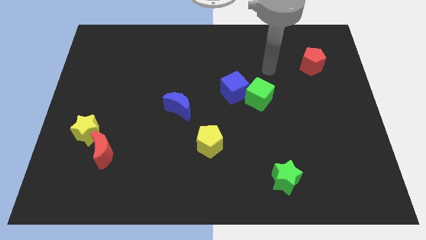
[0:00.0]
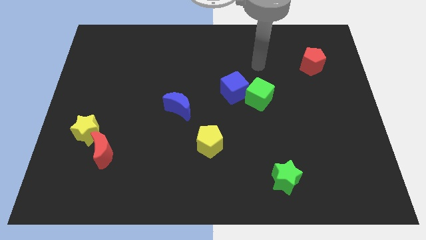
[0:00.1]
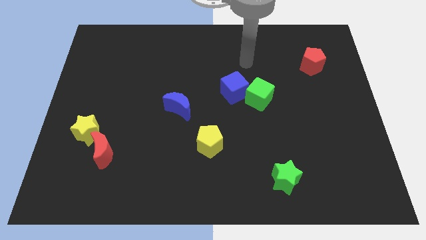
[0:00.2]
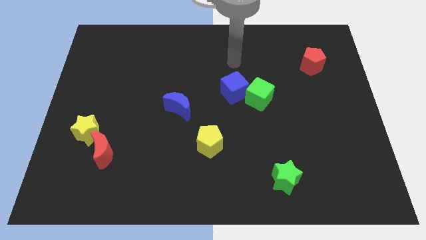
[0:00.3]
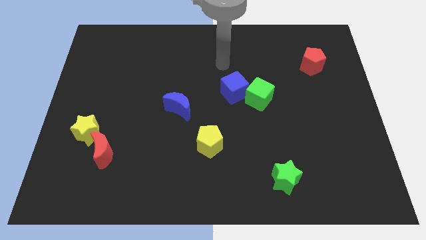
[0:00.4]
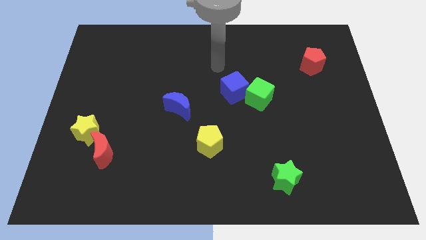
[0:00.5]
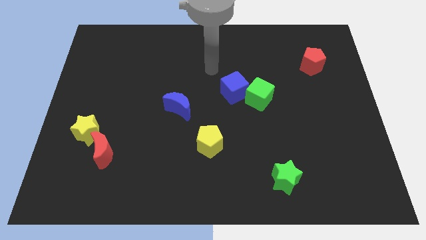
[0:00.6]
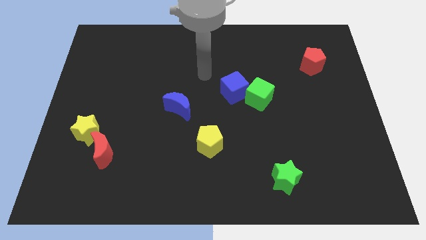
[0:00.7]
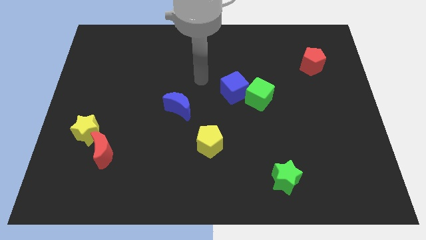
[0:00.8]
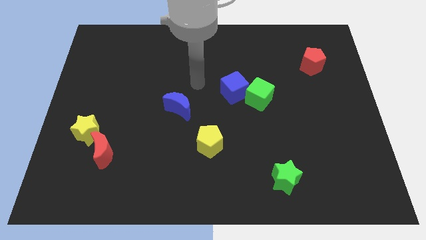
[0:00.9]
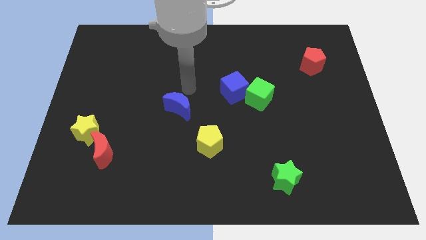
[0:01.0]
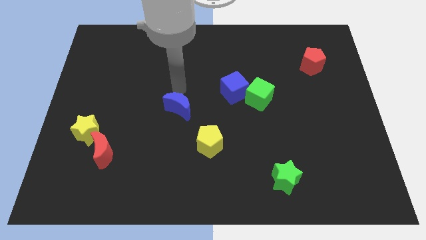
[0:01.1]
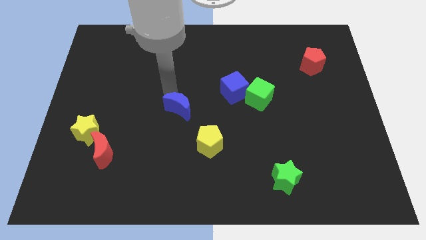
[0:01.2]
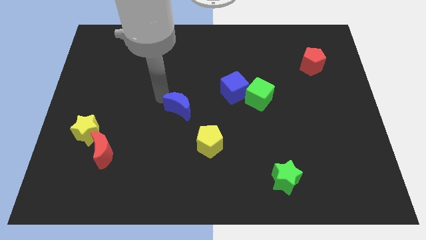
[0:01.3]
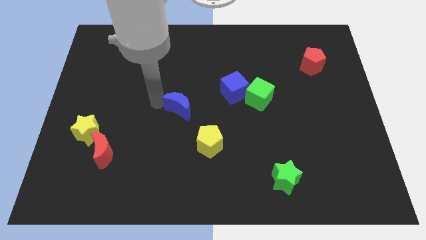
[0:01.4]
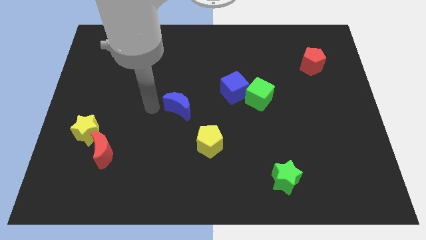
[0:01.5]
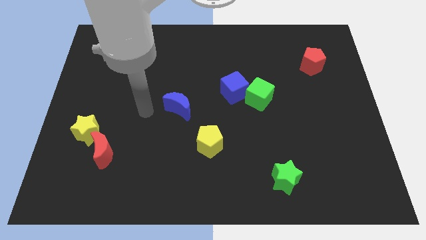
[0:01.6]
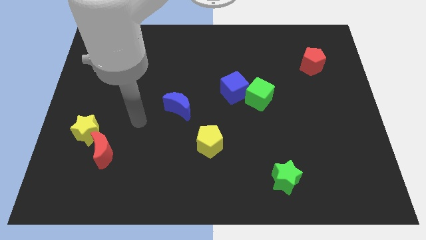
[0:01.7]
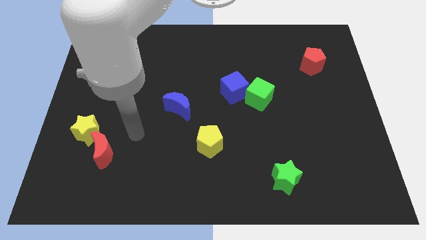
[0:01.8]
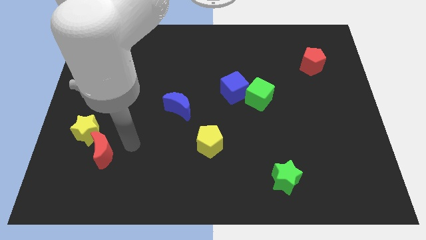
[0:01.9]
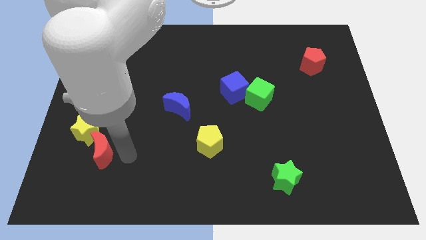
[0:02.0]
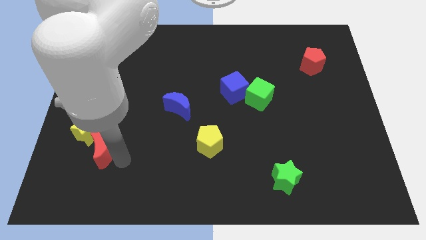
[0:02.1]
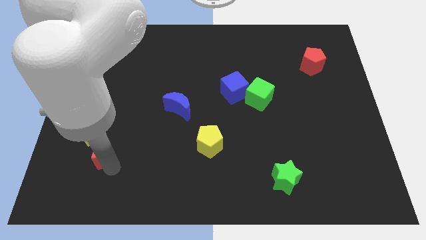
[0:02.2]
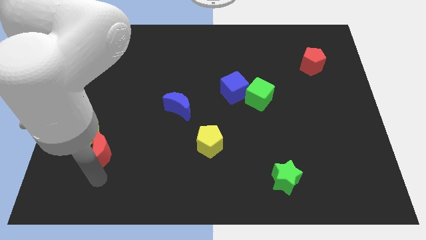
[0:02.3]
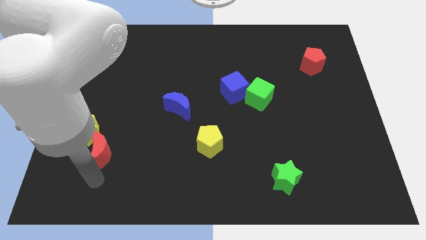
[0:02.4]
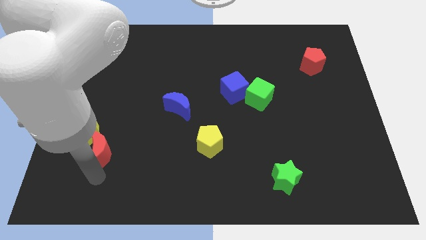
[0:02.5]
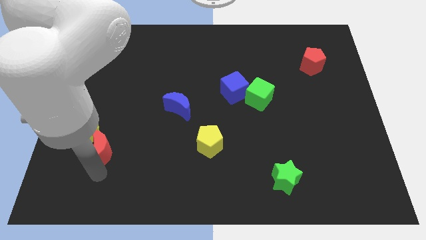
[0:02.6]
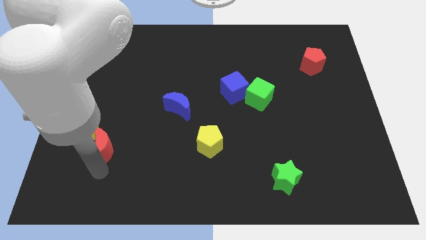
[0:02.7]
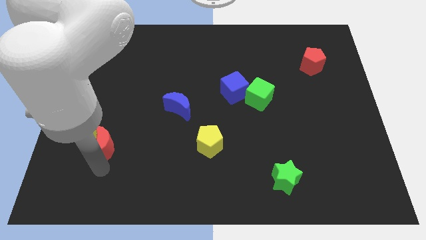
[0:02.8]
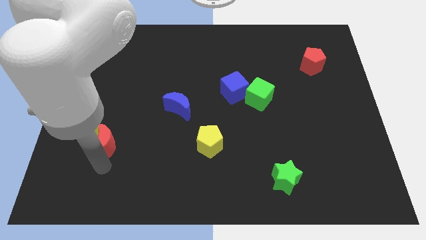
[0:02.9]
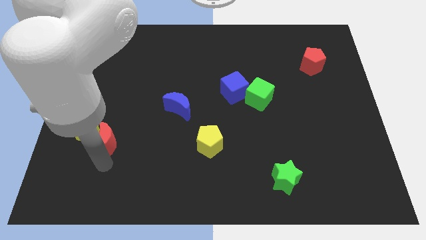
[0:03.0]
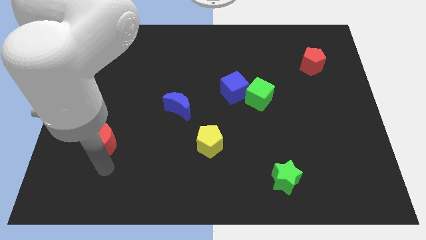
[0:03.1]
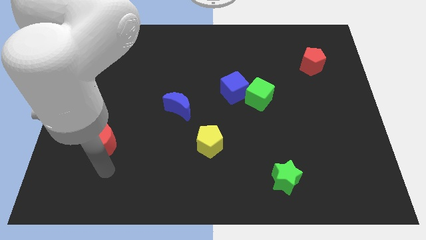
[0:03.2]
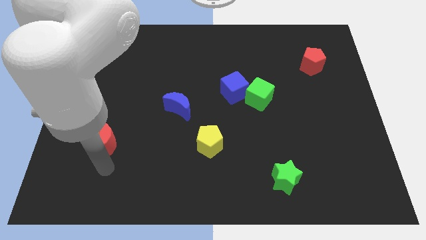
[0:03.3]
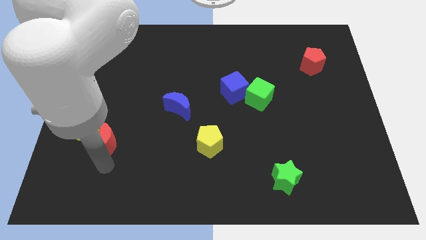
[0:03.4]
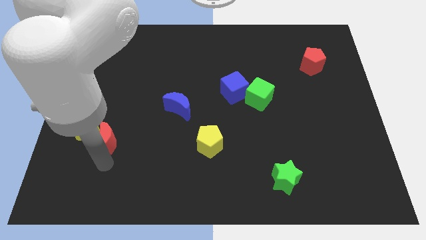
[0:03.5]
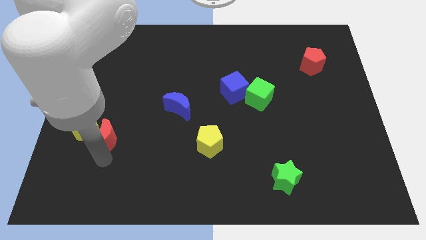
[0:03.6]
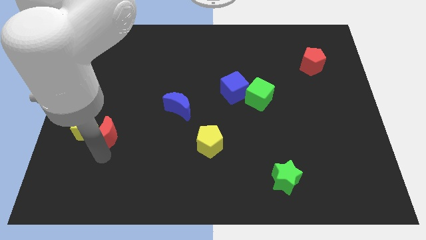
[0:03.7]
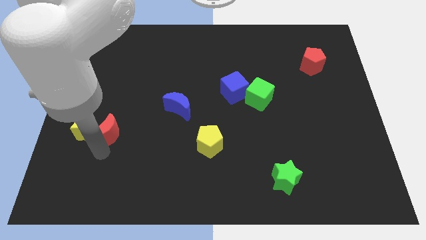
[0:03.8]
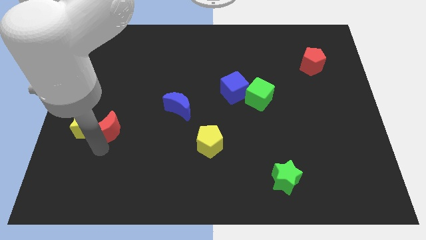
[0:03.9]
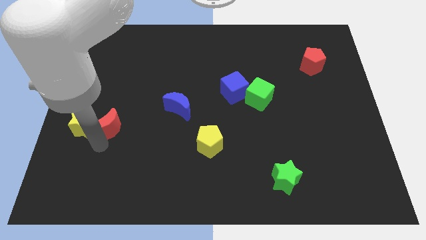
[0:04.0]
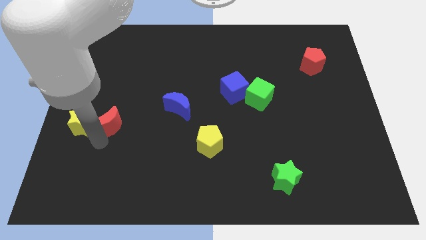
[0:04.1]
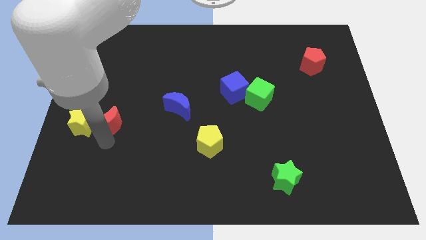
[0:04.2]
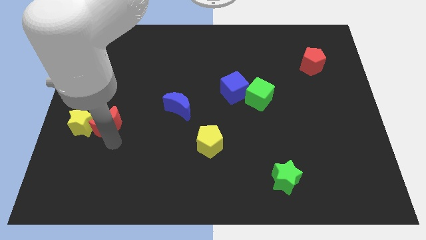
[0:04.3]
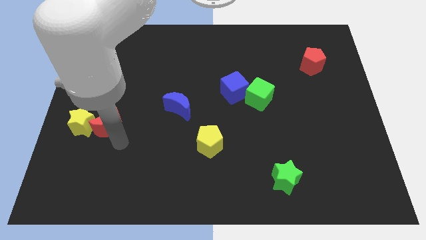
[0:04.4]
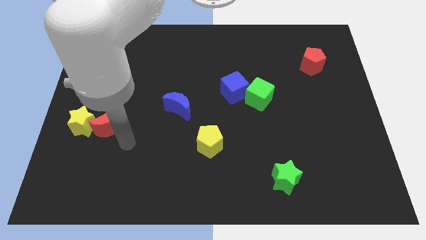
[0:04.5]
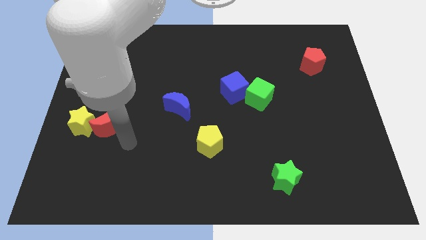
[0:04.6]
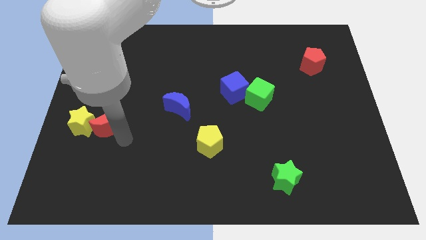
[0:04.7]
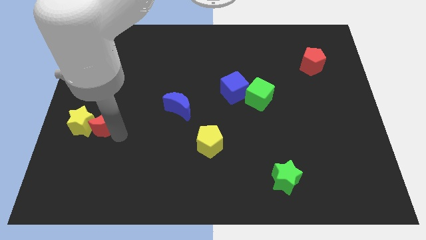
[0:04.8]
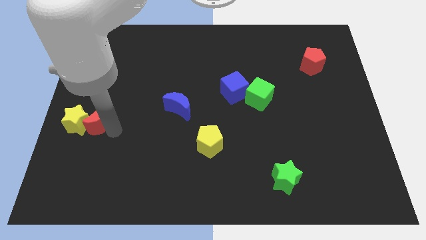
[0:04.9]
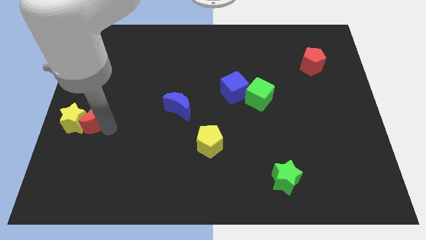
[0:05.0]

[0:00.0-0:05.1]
slide the red moon to the left side of the board

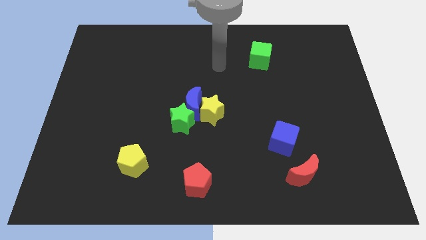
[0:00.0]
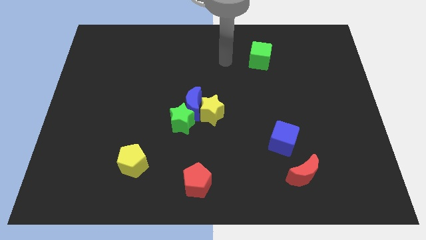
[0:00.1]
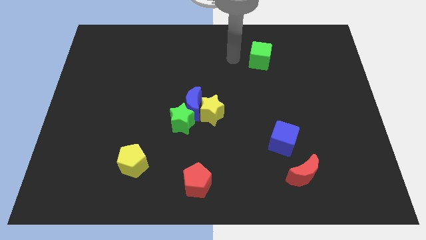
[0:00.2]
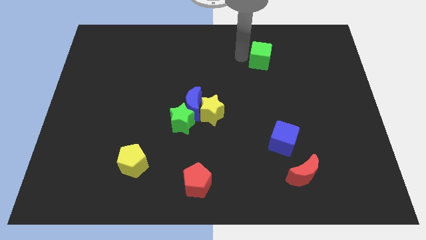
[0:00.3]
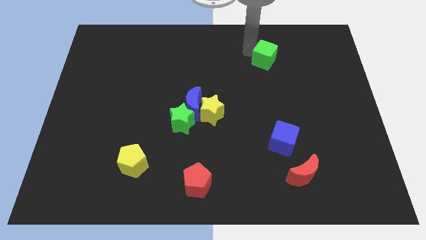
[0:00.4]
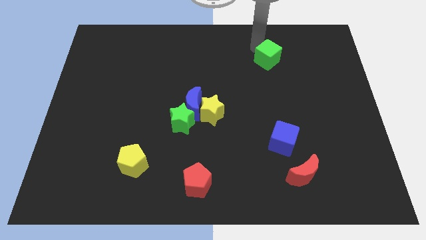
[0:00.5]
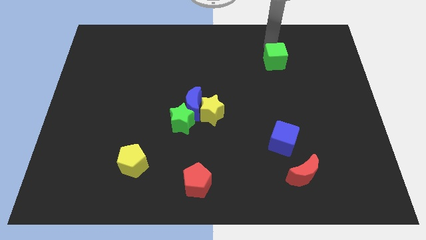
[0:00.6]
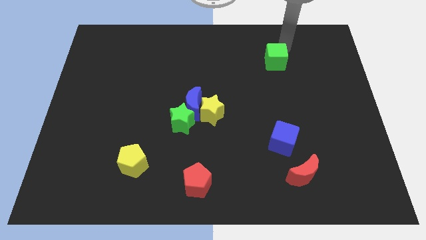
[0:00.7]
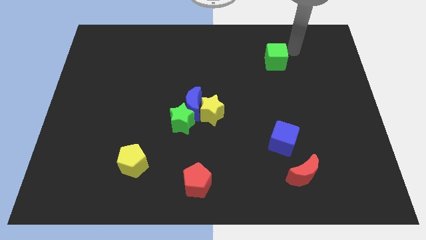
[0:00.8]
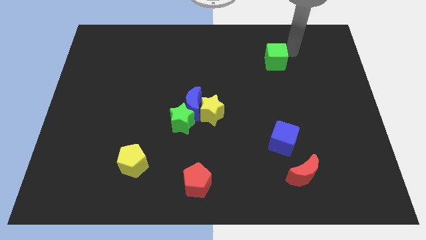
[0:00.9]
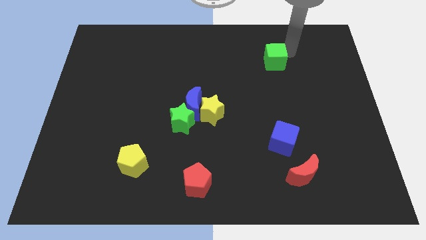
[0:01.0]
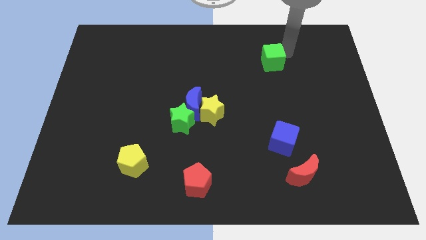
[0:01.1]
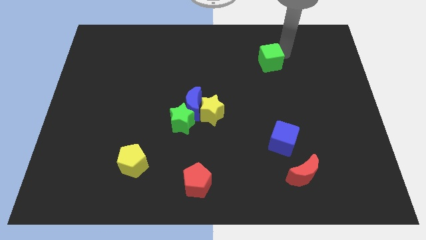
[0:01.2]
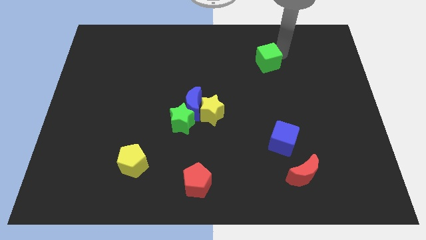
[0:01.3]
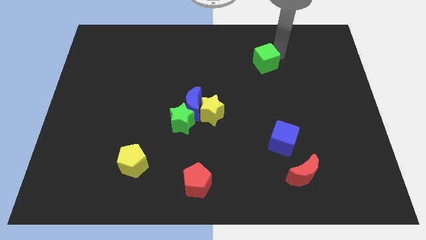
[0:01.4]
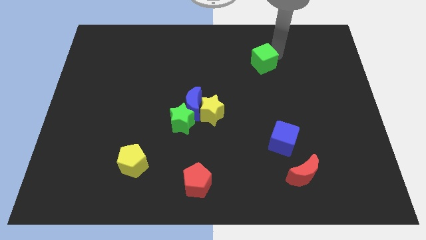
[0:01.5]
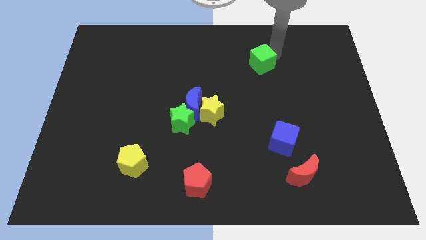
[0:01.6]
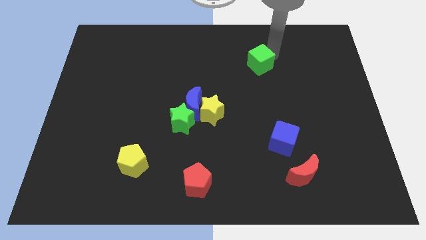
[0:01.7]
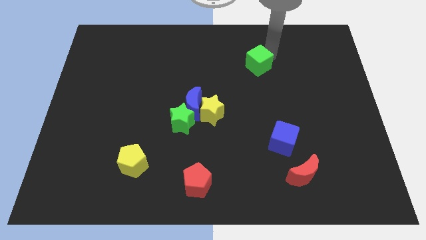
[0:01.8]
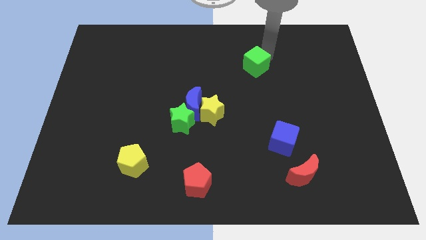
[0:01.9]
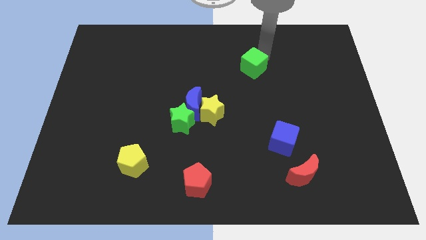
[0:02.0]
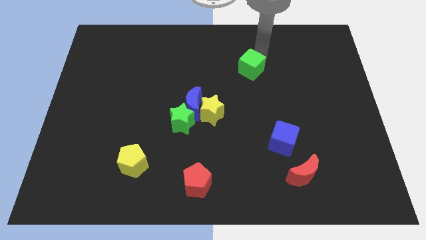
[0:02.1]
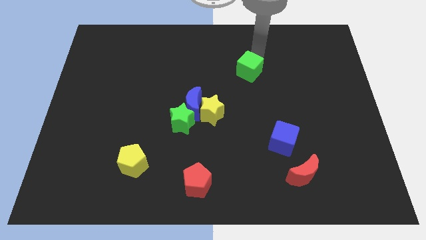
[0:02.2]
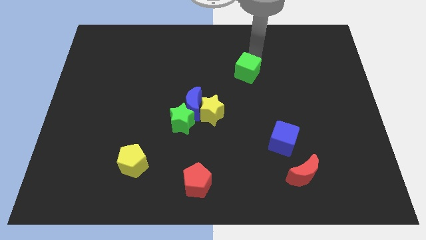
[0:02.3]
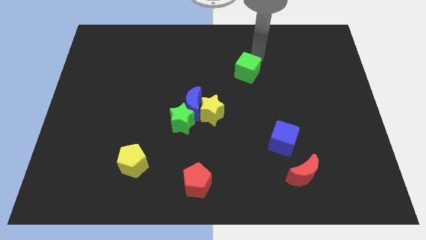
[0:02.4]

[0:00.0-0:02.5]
slide the green cube to the center
